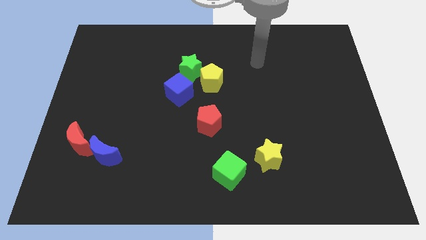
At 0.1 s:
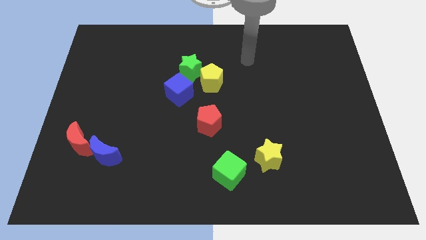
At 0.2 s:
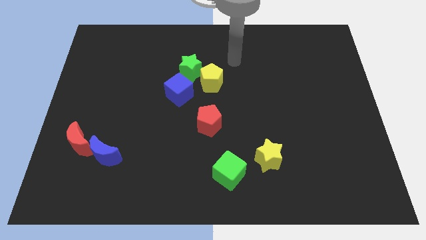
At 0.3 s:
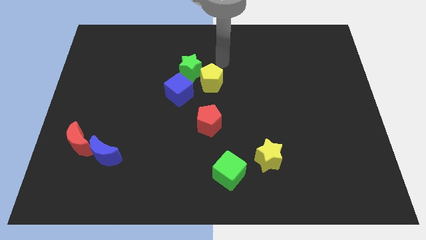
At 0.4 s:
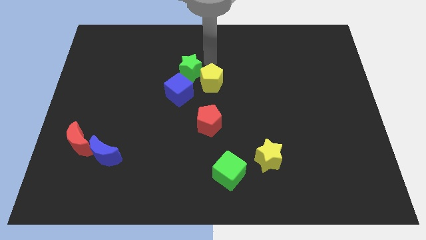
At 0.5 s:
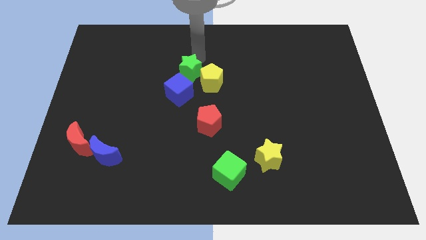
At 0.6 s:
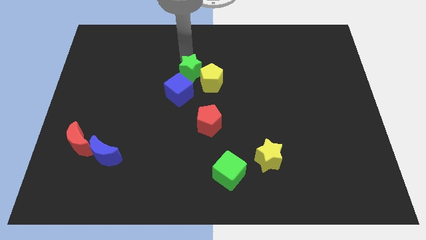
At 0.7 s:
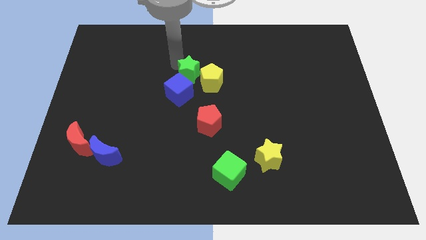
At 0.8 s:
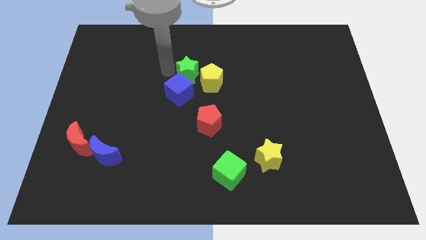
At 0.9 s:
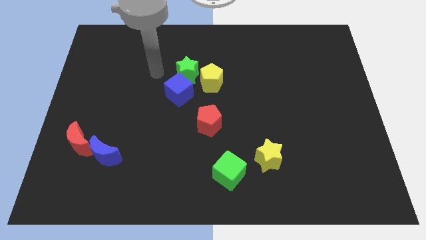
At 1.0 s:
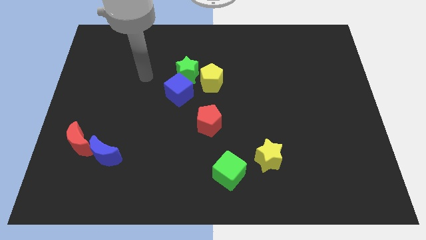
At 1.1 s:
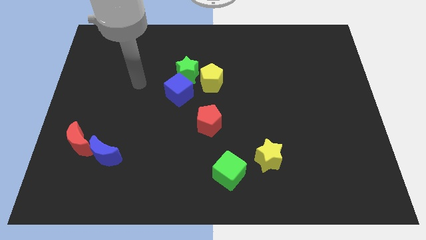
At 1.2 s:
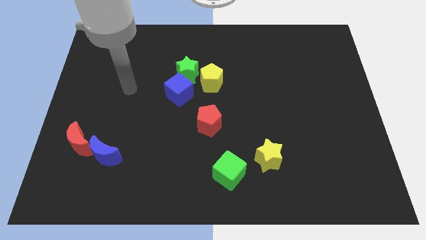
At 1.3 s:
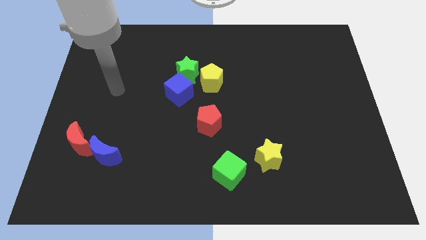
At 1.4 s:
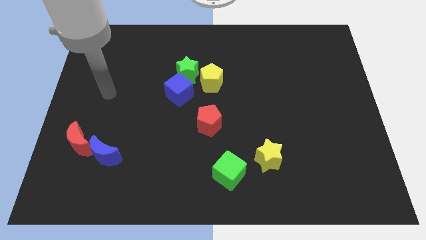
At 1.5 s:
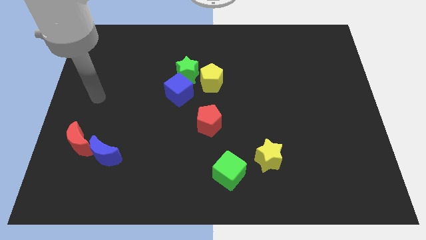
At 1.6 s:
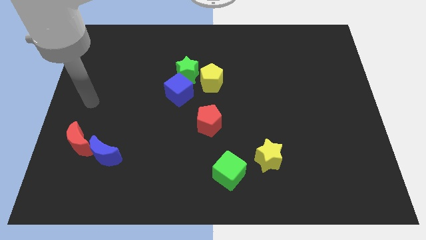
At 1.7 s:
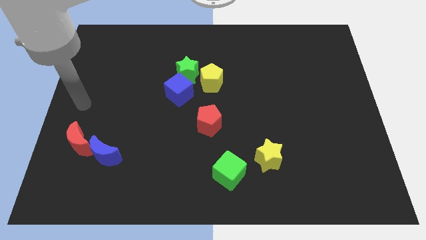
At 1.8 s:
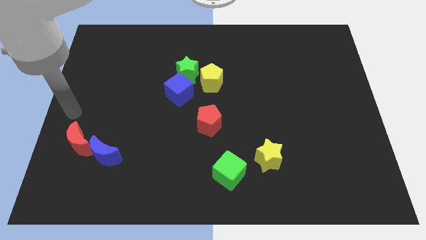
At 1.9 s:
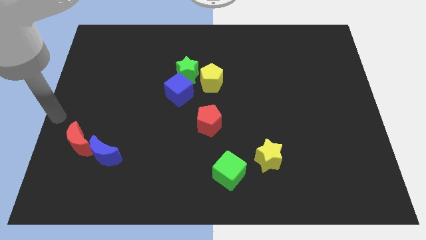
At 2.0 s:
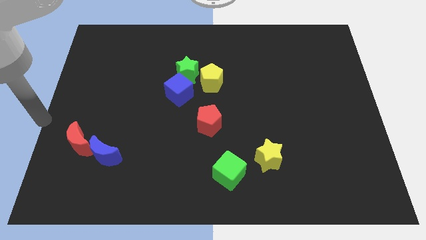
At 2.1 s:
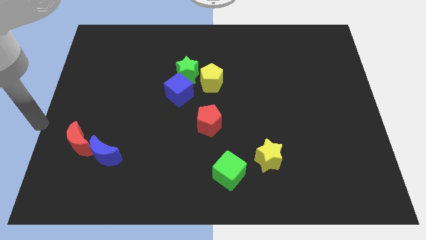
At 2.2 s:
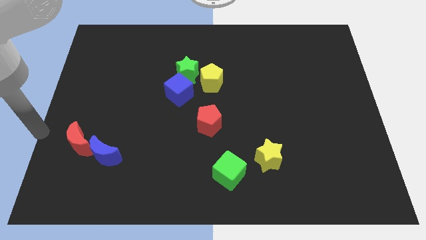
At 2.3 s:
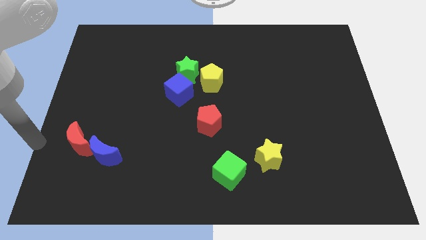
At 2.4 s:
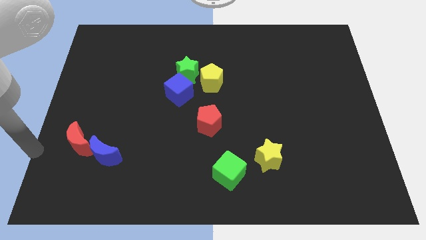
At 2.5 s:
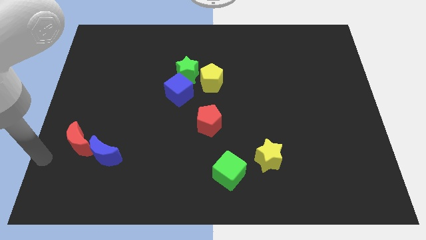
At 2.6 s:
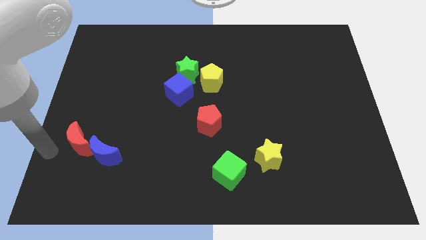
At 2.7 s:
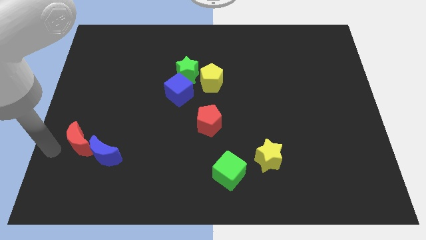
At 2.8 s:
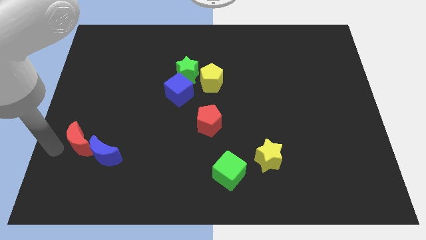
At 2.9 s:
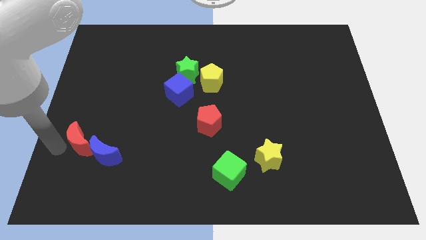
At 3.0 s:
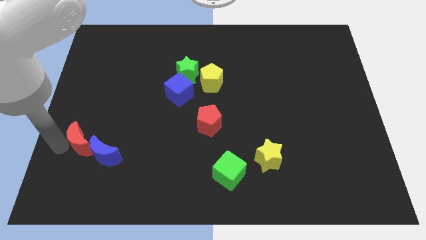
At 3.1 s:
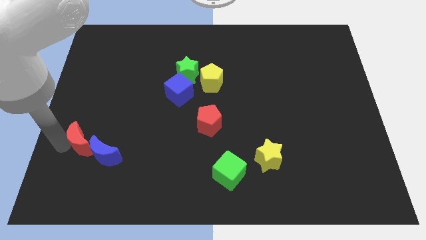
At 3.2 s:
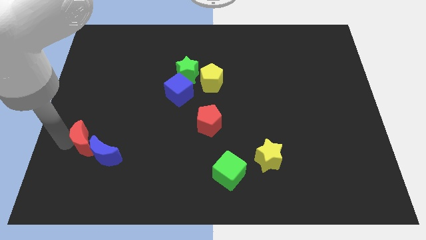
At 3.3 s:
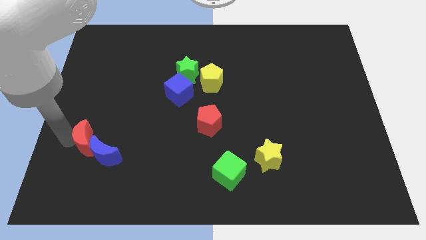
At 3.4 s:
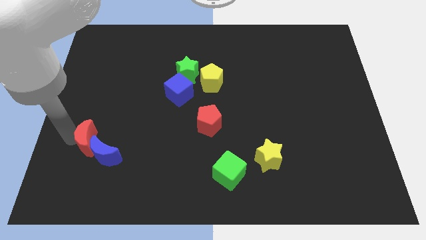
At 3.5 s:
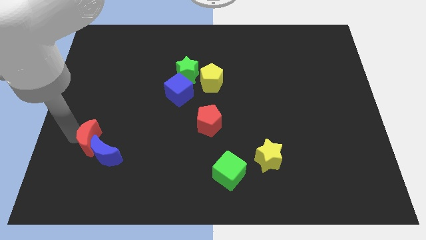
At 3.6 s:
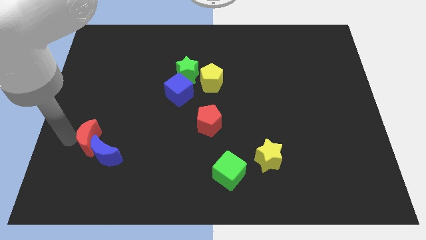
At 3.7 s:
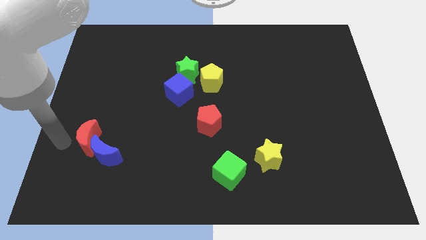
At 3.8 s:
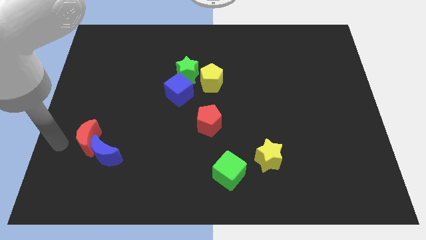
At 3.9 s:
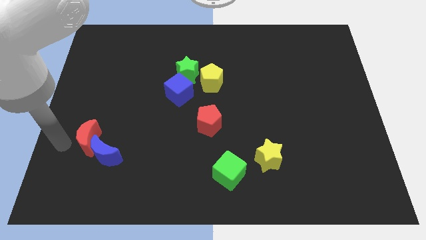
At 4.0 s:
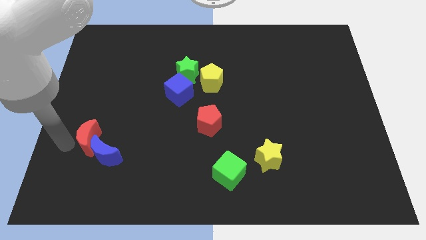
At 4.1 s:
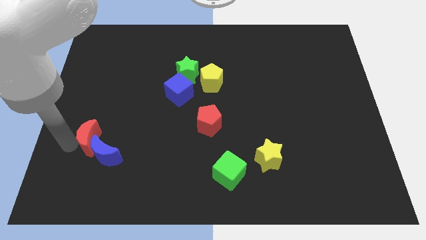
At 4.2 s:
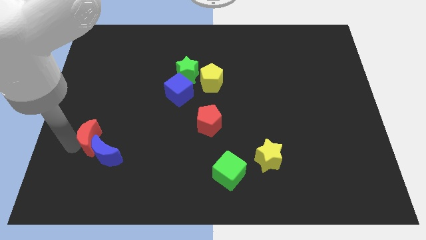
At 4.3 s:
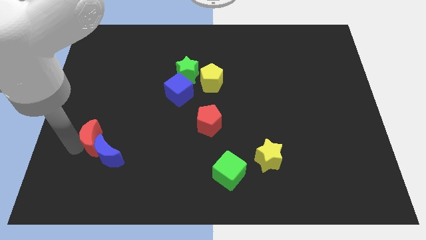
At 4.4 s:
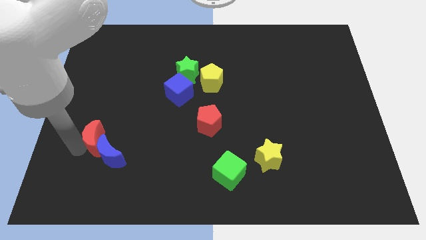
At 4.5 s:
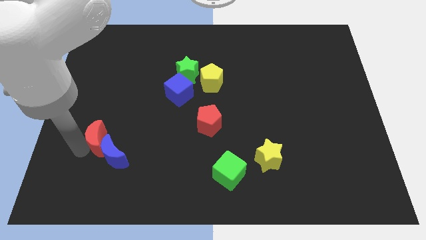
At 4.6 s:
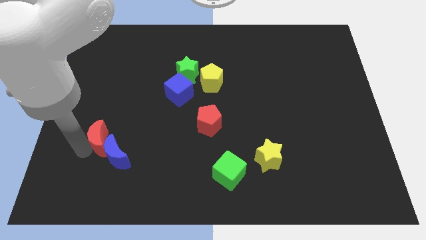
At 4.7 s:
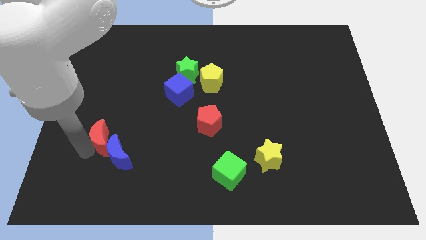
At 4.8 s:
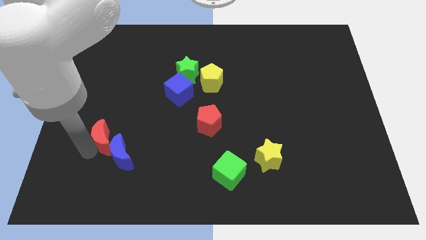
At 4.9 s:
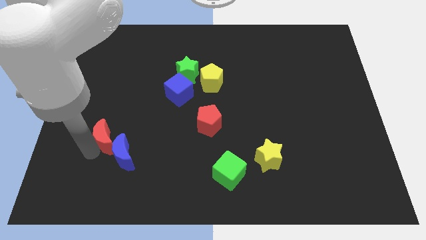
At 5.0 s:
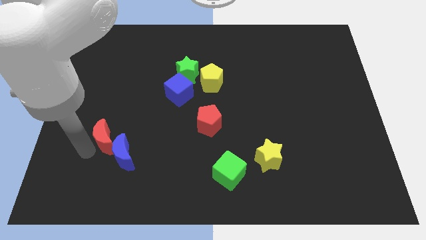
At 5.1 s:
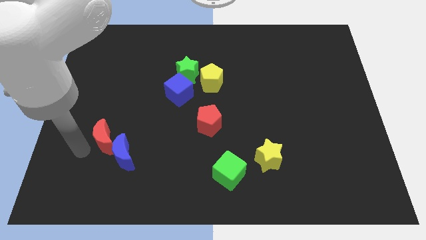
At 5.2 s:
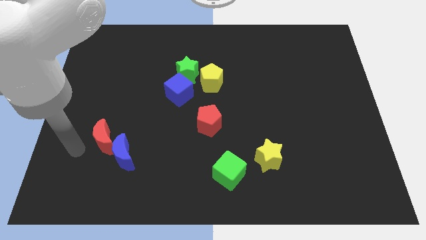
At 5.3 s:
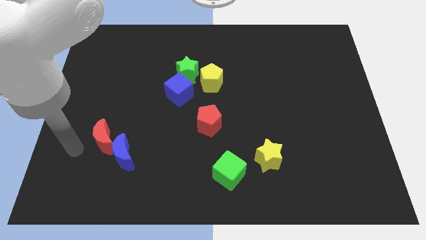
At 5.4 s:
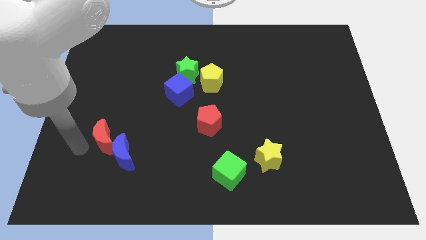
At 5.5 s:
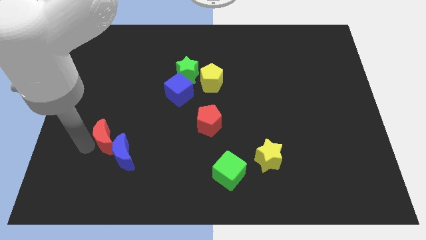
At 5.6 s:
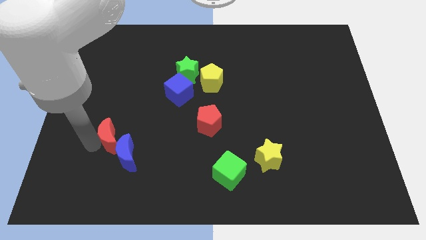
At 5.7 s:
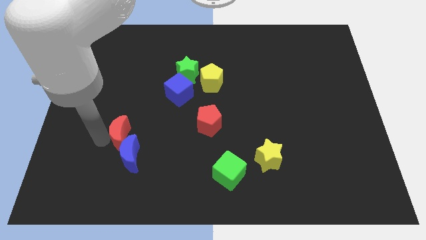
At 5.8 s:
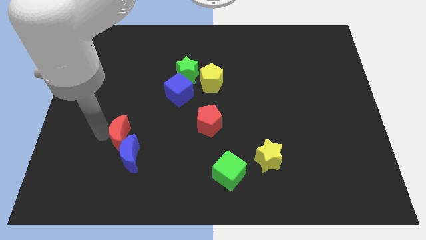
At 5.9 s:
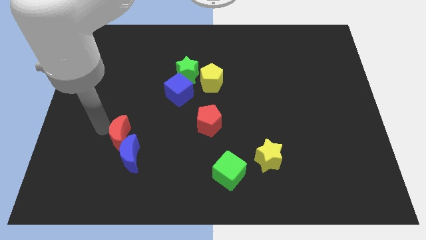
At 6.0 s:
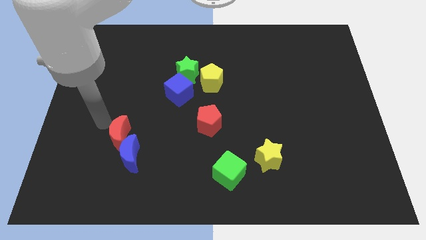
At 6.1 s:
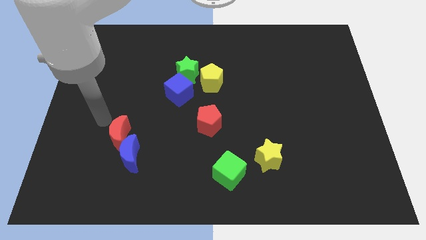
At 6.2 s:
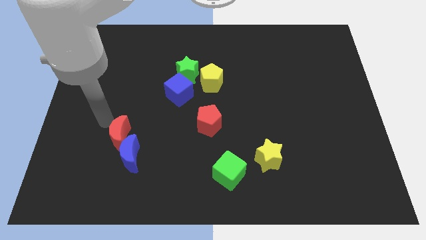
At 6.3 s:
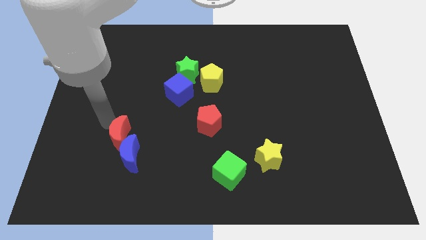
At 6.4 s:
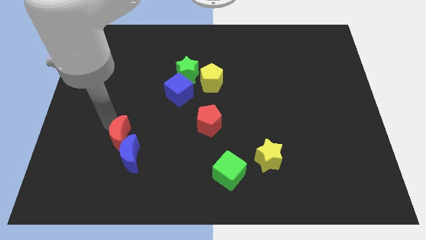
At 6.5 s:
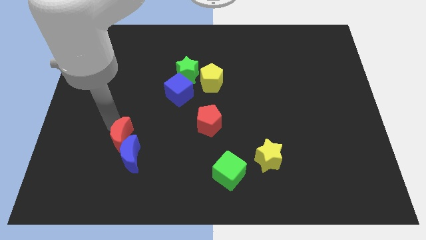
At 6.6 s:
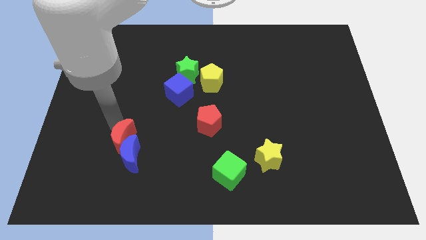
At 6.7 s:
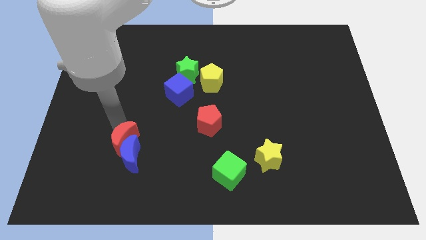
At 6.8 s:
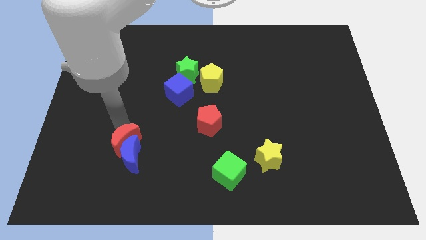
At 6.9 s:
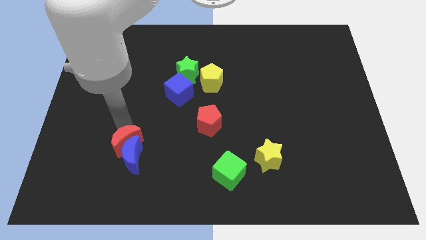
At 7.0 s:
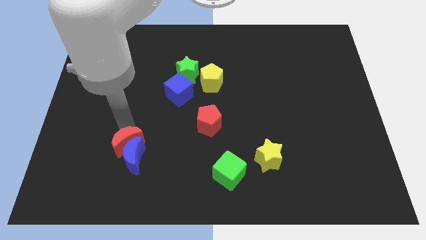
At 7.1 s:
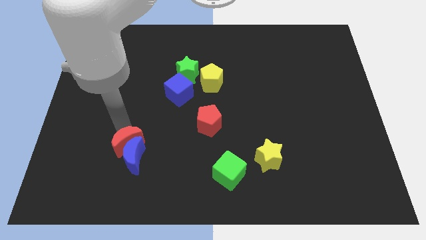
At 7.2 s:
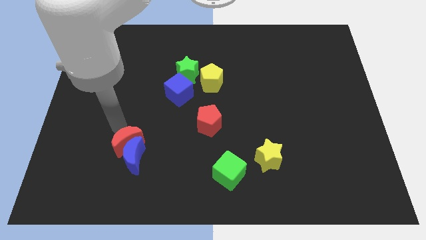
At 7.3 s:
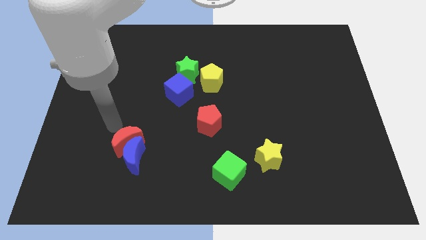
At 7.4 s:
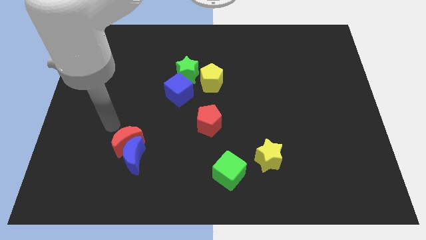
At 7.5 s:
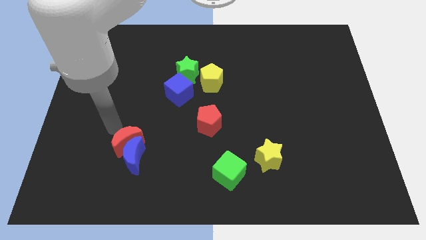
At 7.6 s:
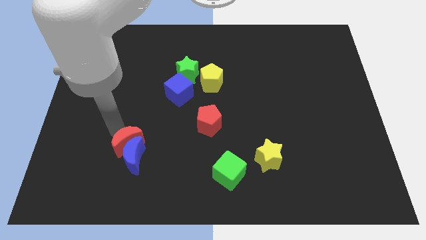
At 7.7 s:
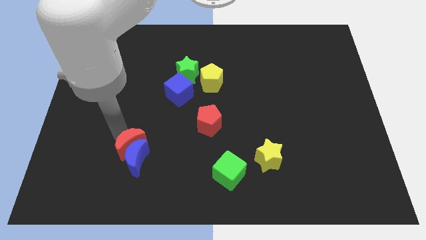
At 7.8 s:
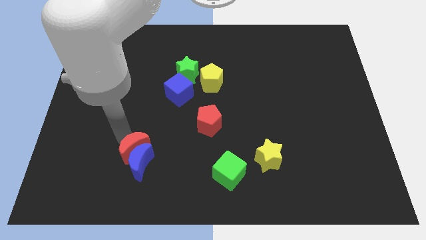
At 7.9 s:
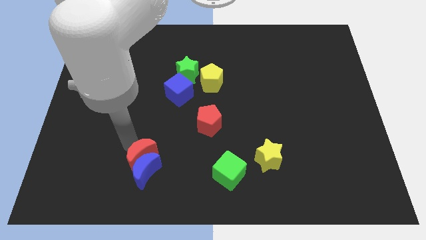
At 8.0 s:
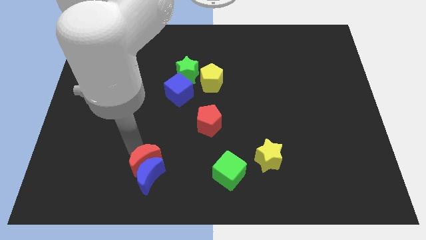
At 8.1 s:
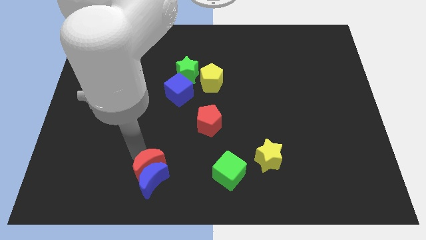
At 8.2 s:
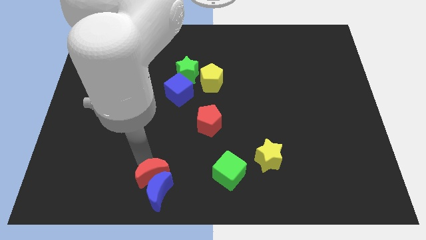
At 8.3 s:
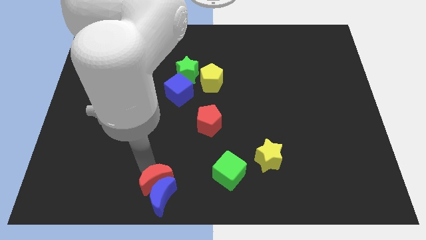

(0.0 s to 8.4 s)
push the red moon to the bottom side
